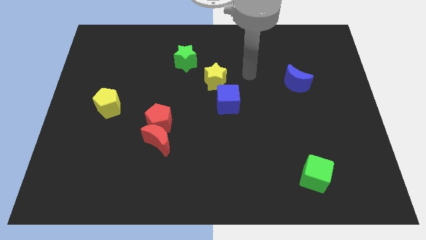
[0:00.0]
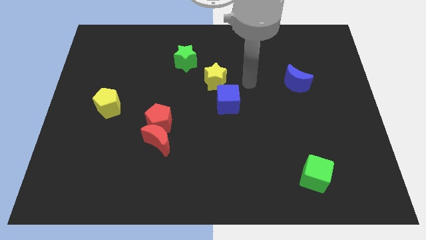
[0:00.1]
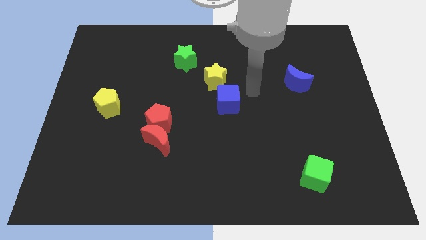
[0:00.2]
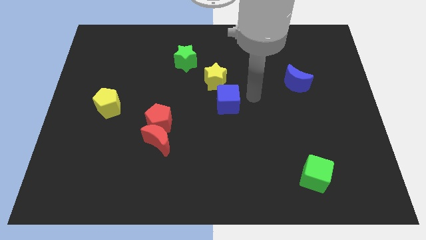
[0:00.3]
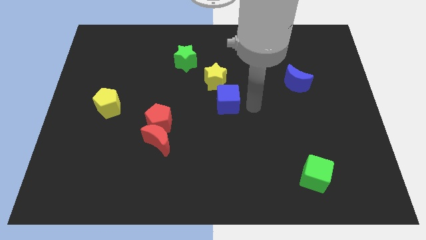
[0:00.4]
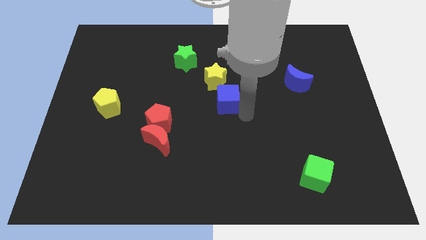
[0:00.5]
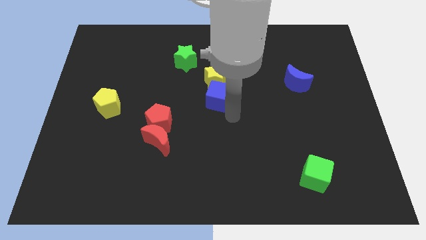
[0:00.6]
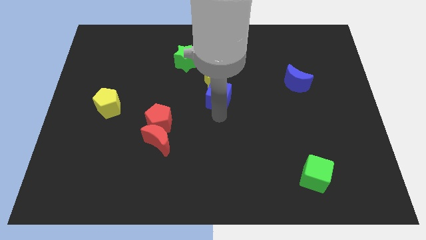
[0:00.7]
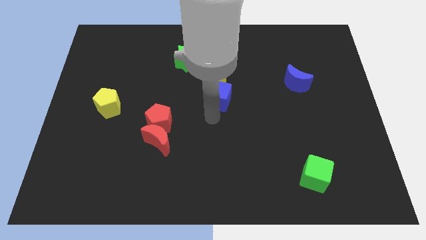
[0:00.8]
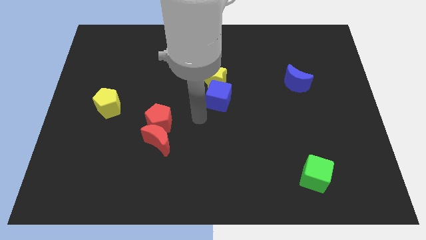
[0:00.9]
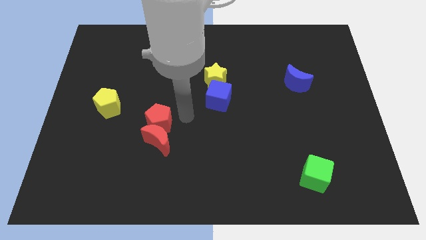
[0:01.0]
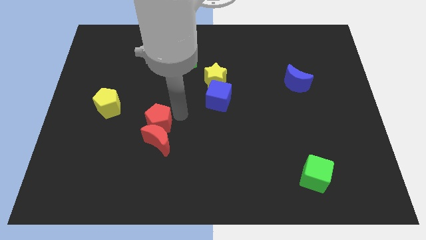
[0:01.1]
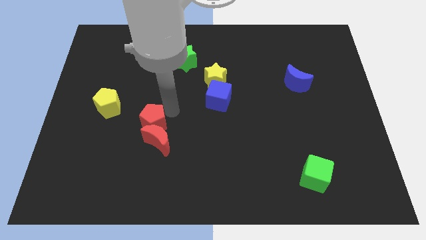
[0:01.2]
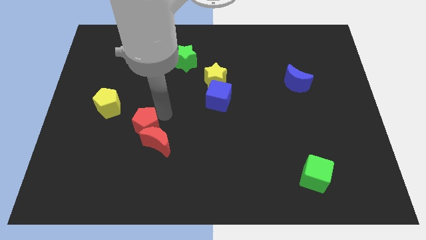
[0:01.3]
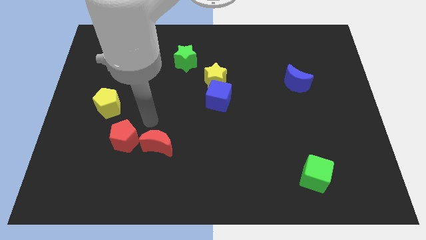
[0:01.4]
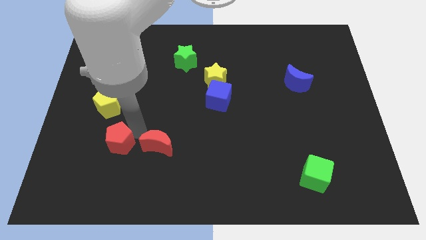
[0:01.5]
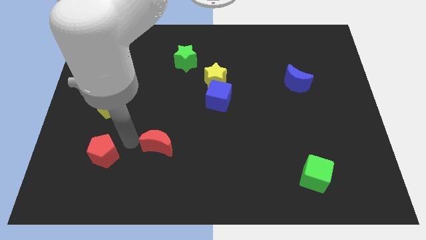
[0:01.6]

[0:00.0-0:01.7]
move the red moon away from the red pentagon

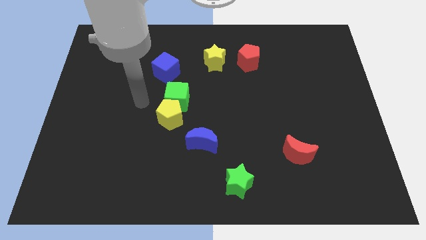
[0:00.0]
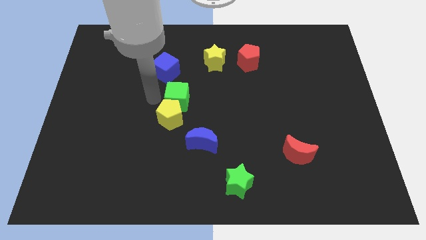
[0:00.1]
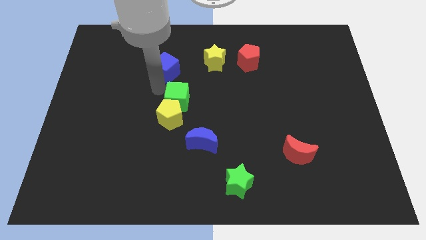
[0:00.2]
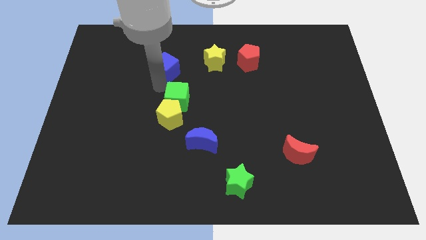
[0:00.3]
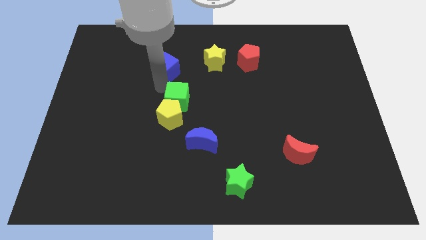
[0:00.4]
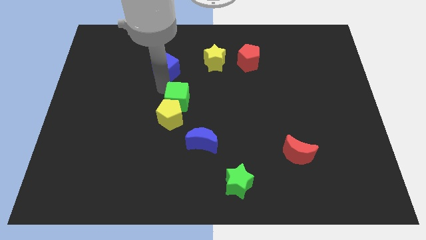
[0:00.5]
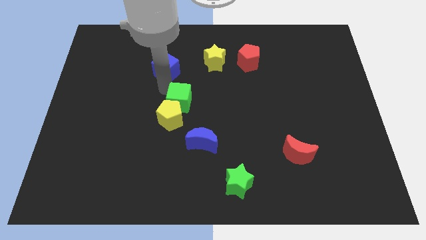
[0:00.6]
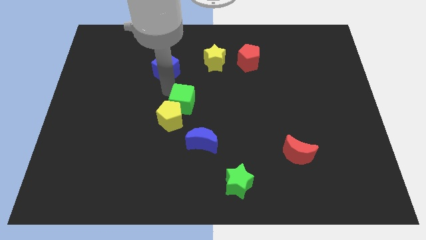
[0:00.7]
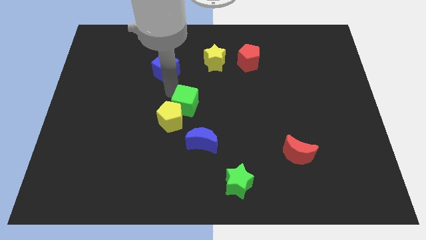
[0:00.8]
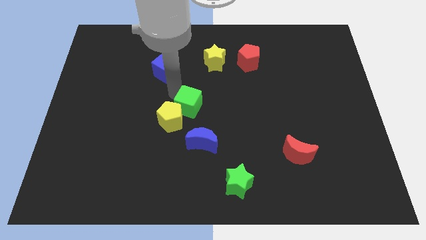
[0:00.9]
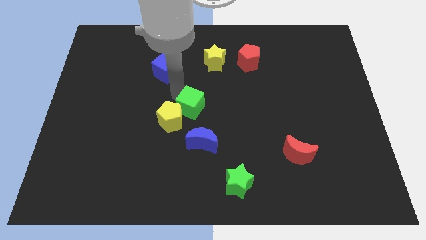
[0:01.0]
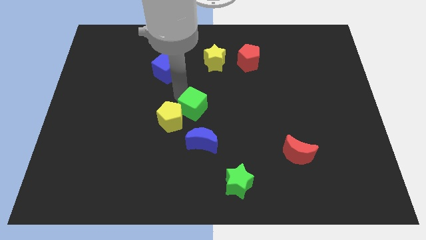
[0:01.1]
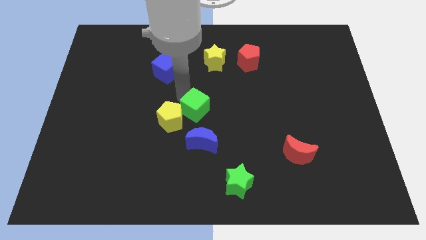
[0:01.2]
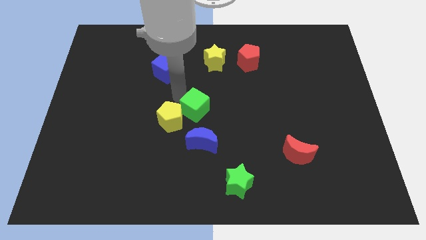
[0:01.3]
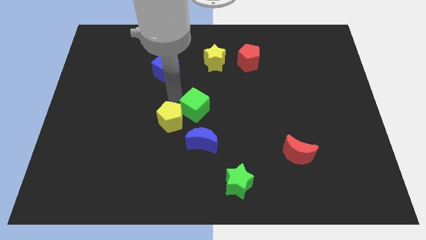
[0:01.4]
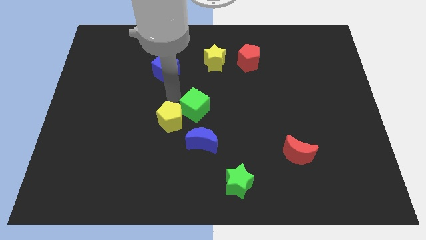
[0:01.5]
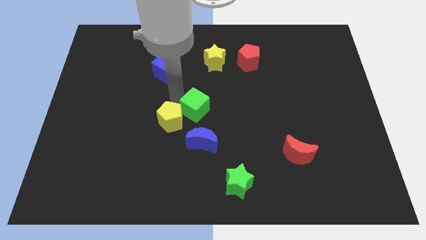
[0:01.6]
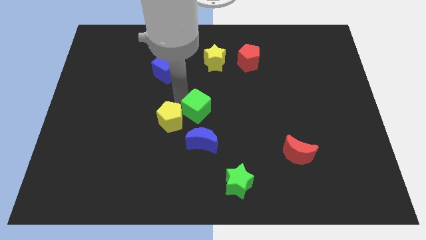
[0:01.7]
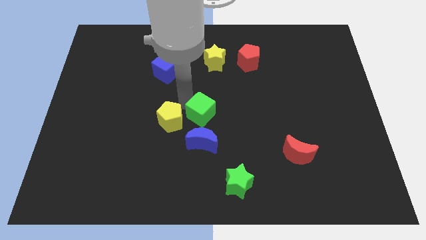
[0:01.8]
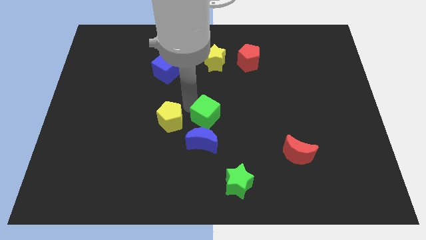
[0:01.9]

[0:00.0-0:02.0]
move the green cube away from the yellow pentagon and blue cube

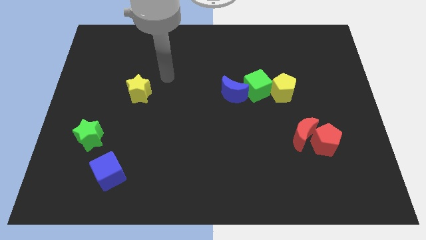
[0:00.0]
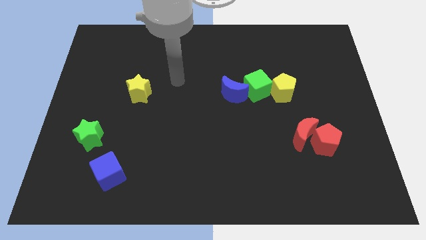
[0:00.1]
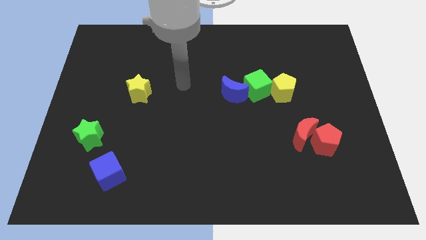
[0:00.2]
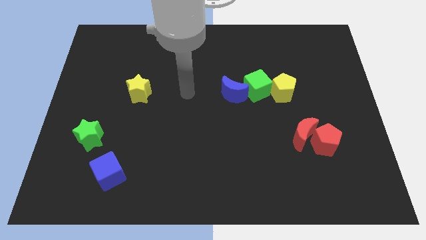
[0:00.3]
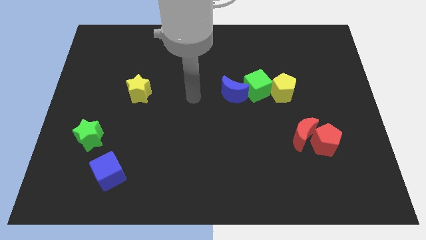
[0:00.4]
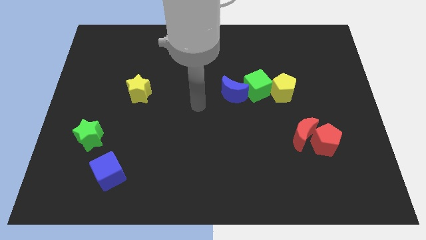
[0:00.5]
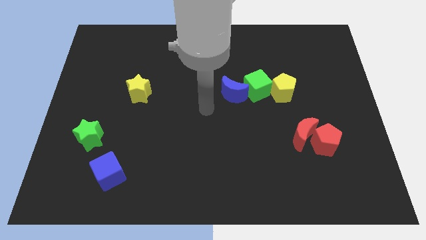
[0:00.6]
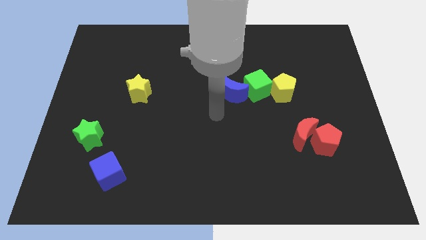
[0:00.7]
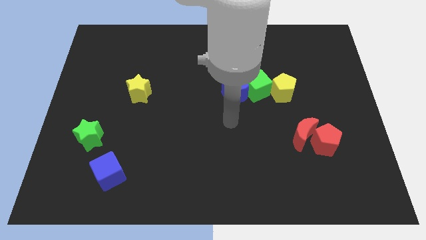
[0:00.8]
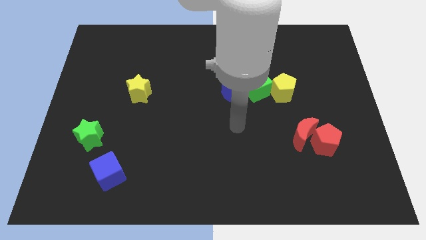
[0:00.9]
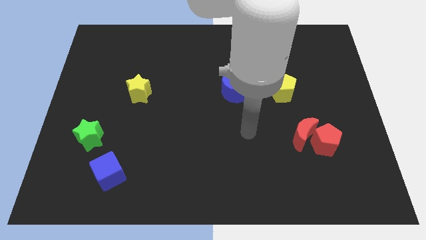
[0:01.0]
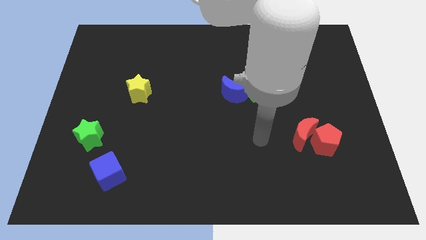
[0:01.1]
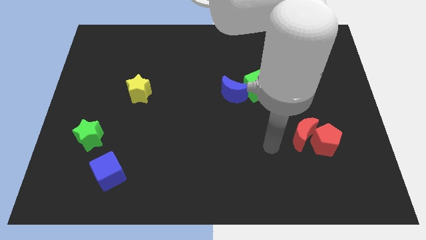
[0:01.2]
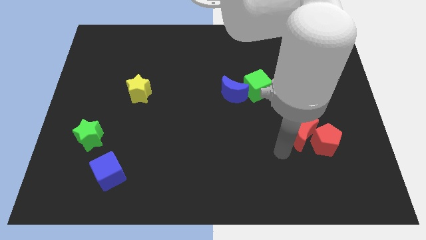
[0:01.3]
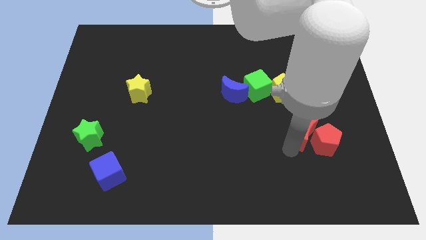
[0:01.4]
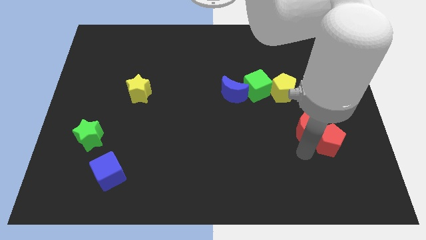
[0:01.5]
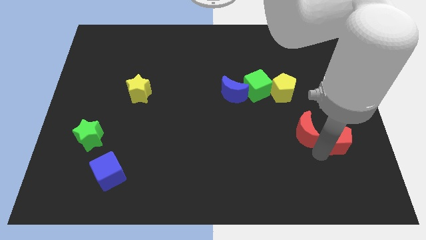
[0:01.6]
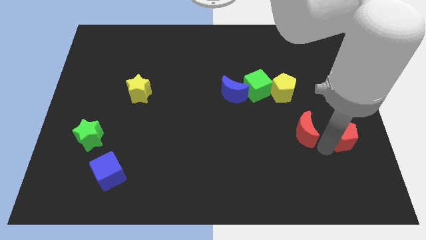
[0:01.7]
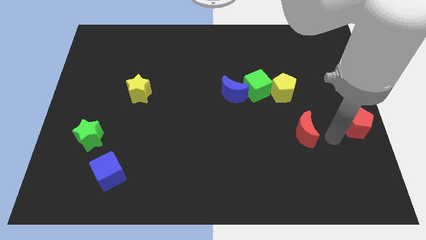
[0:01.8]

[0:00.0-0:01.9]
pull the red moon apart from the red pentagon

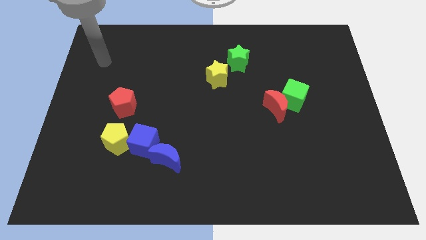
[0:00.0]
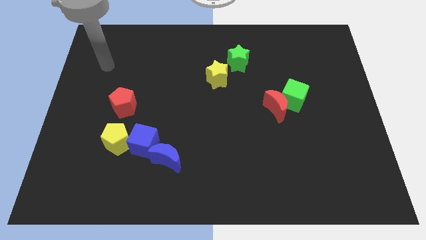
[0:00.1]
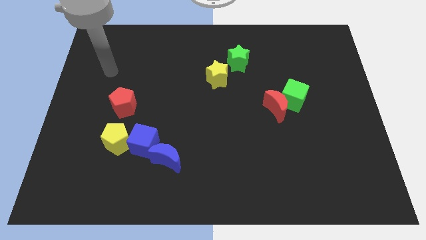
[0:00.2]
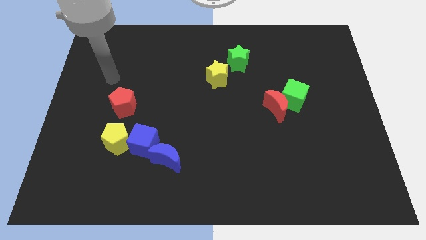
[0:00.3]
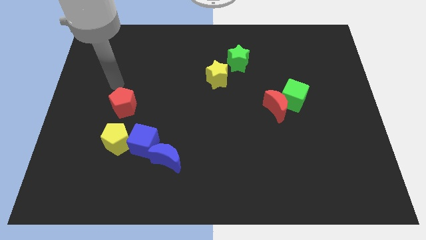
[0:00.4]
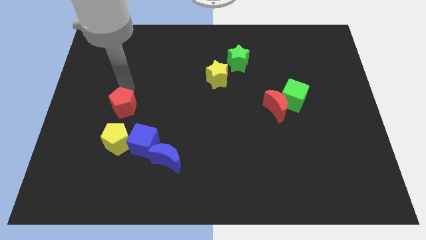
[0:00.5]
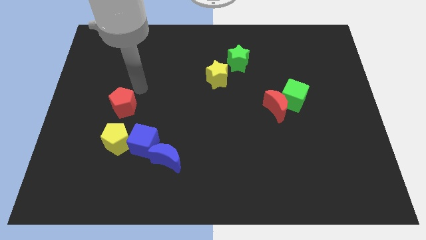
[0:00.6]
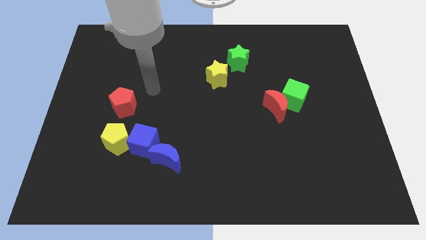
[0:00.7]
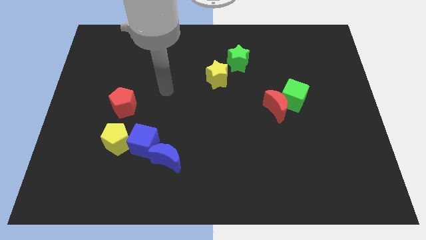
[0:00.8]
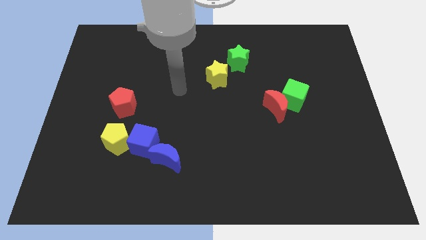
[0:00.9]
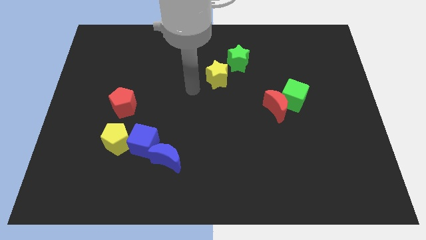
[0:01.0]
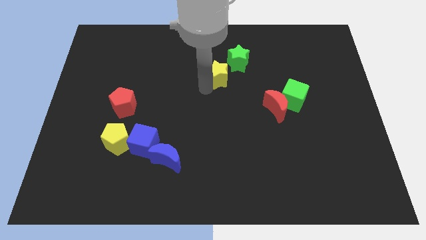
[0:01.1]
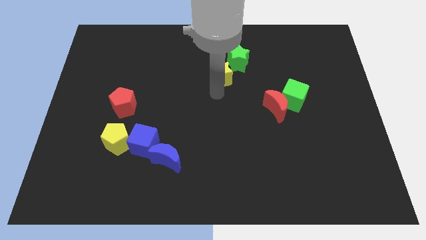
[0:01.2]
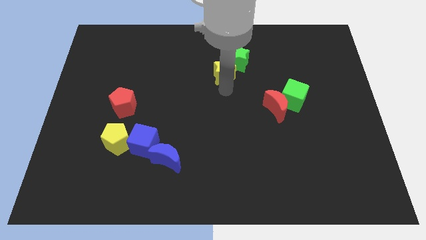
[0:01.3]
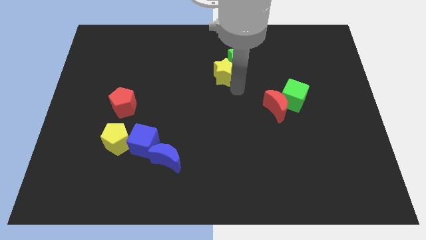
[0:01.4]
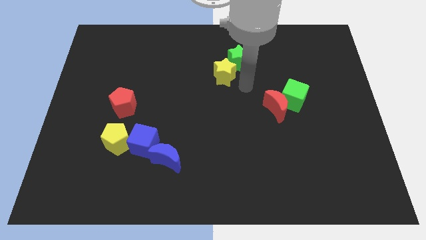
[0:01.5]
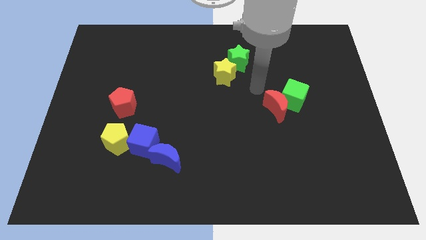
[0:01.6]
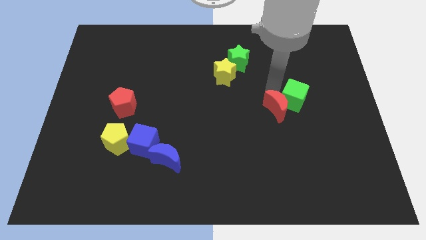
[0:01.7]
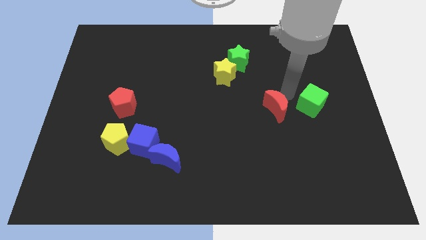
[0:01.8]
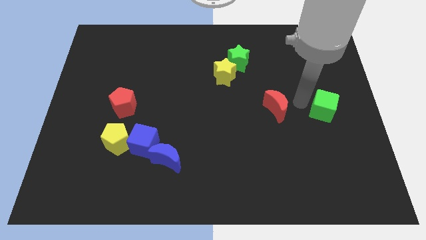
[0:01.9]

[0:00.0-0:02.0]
separate the red moon from the green cube

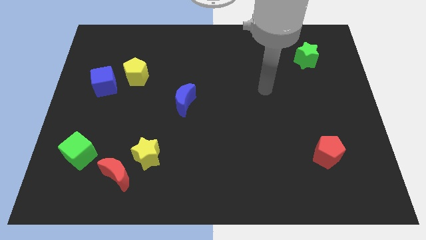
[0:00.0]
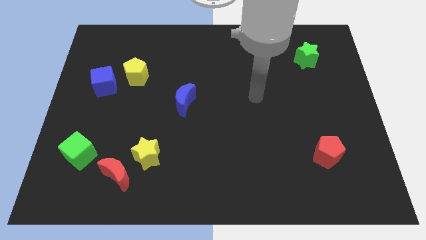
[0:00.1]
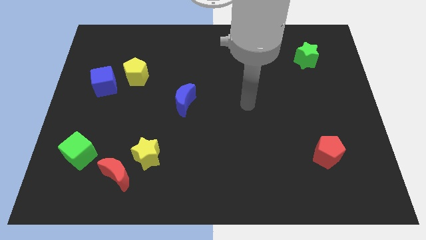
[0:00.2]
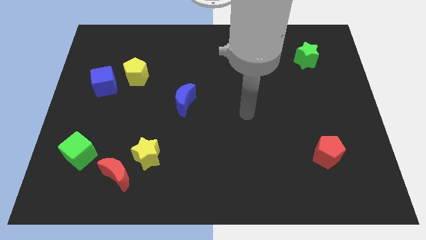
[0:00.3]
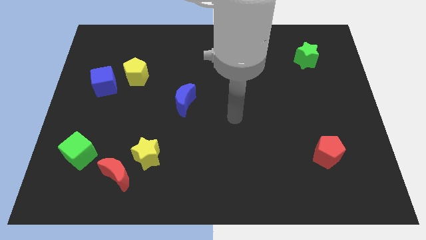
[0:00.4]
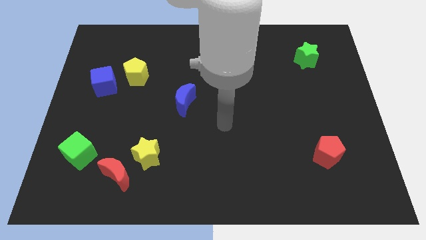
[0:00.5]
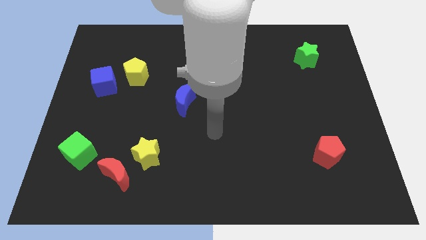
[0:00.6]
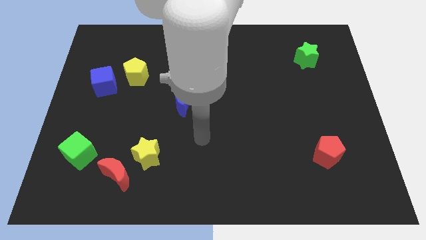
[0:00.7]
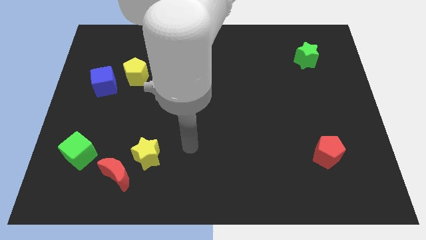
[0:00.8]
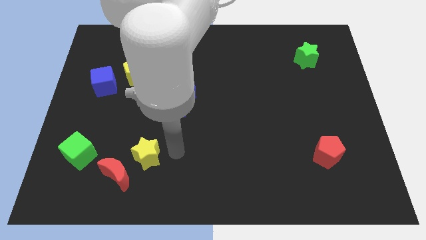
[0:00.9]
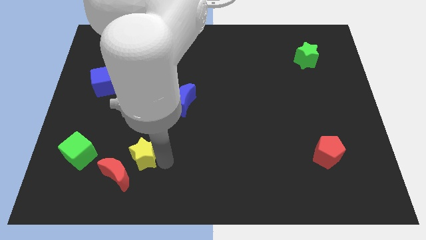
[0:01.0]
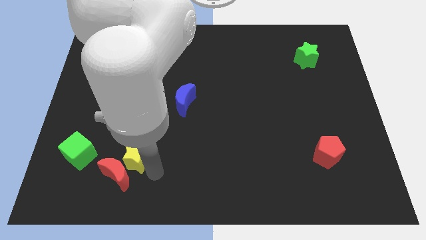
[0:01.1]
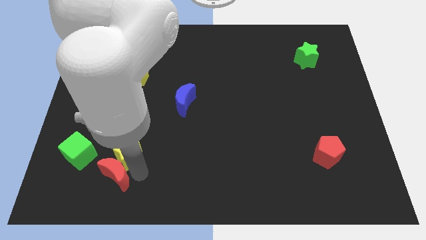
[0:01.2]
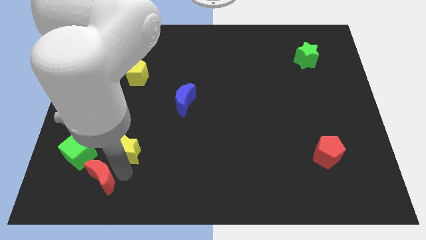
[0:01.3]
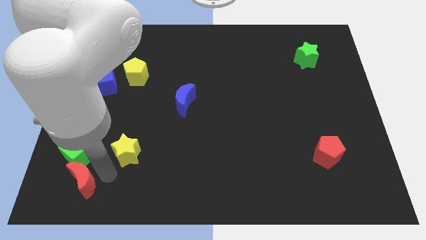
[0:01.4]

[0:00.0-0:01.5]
pull the yellow star apart from the red moon

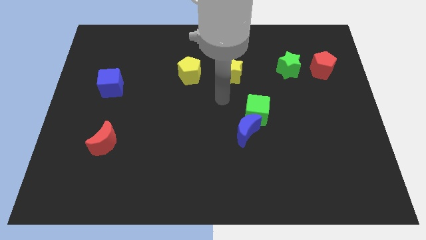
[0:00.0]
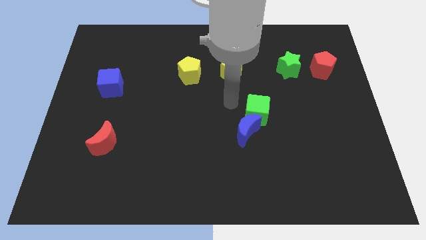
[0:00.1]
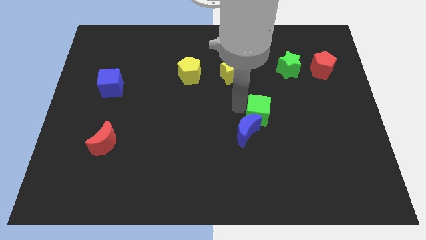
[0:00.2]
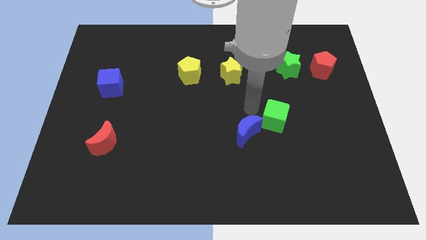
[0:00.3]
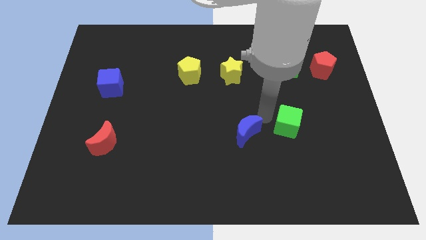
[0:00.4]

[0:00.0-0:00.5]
separate the blue moon from the green cube
